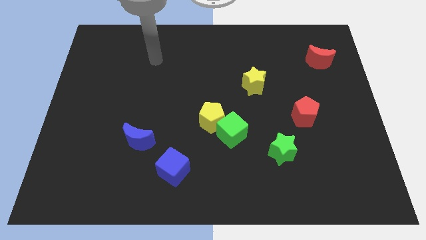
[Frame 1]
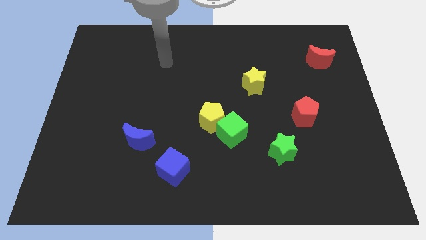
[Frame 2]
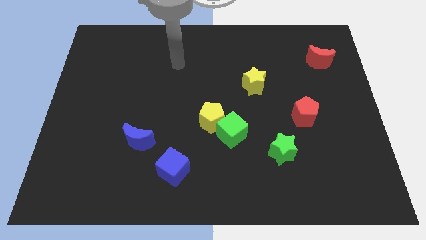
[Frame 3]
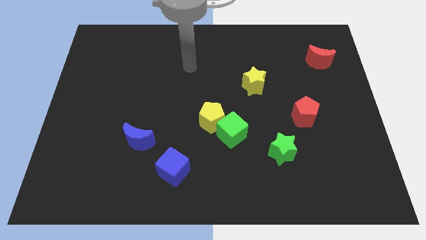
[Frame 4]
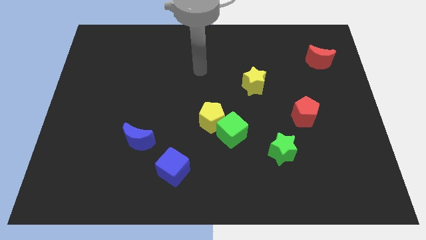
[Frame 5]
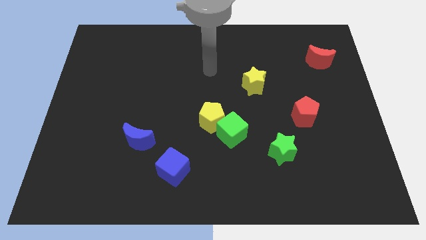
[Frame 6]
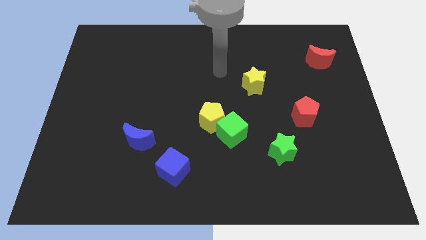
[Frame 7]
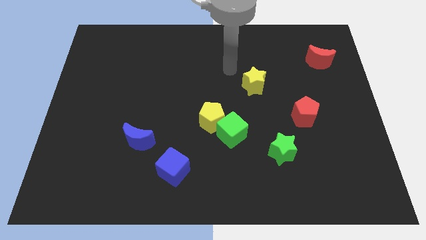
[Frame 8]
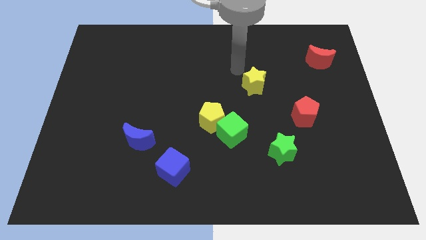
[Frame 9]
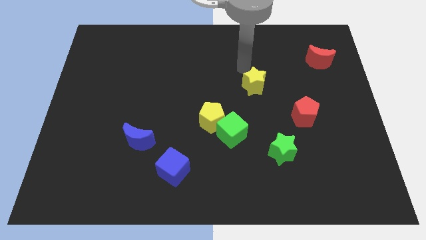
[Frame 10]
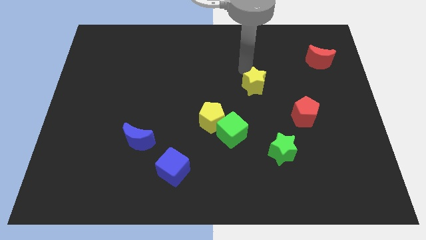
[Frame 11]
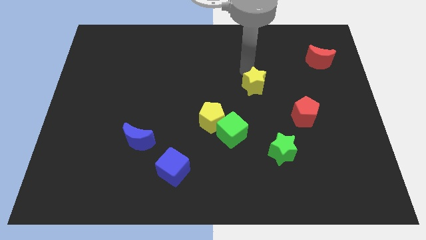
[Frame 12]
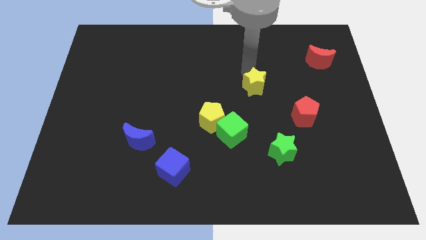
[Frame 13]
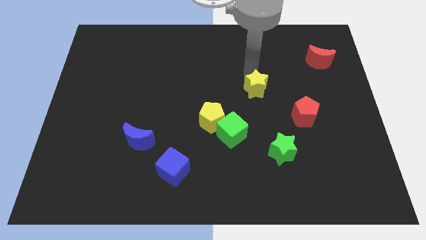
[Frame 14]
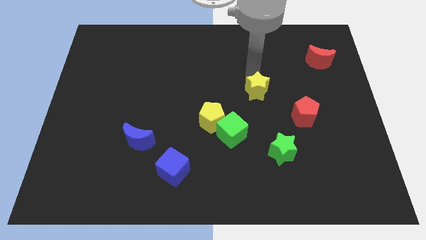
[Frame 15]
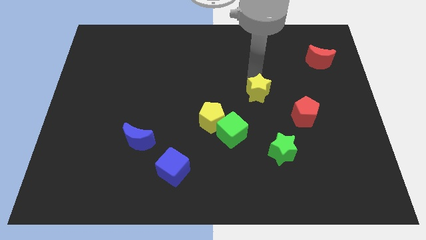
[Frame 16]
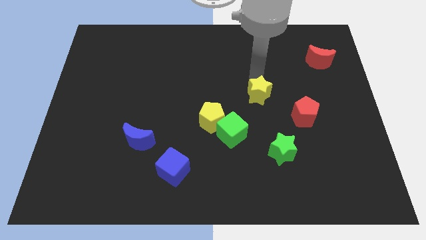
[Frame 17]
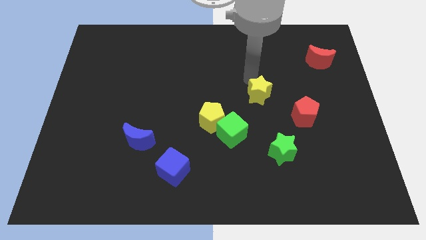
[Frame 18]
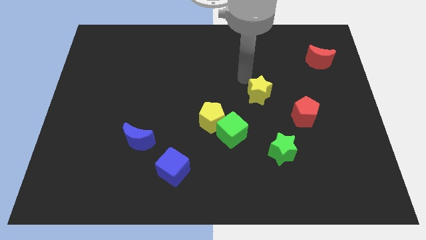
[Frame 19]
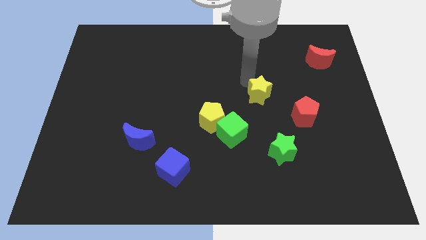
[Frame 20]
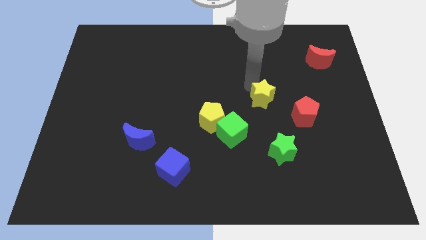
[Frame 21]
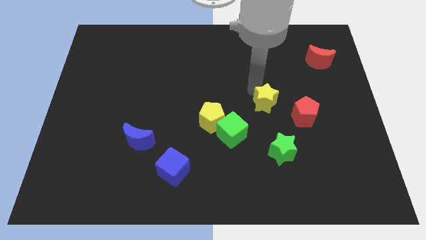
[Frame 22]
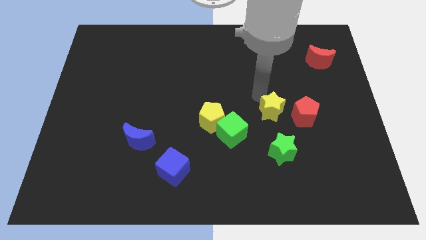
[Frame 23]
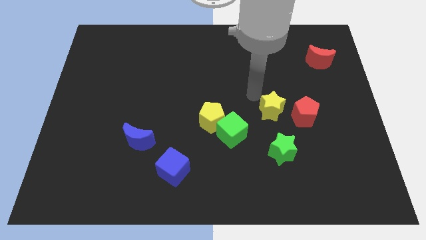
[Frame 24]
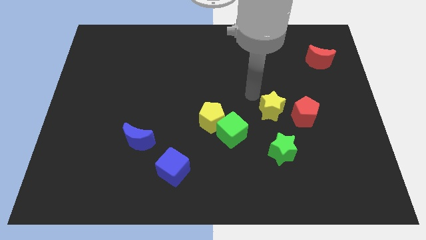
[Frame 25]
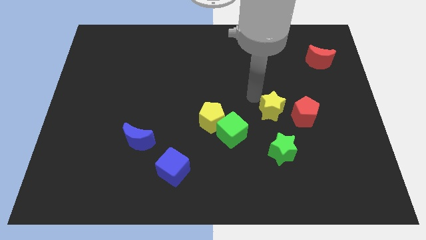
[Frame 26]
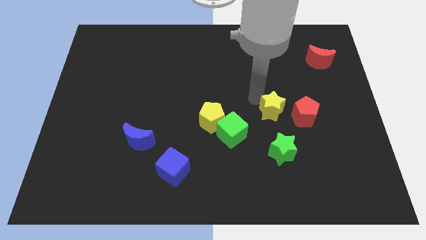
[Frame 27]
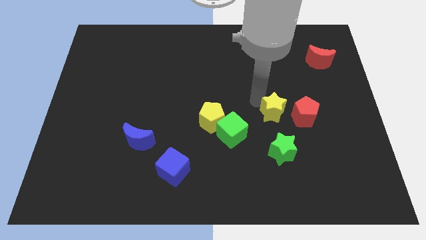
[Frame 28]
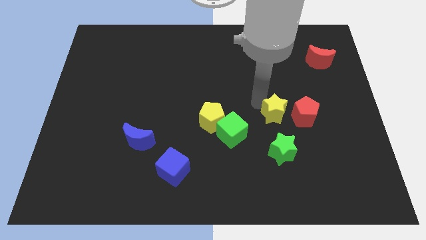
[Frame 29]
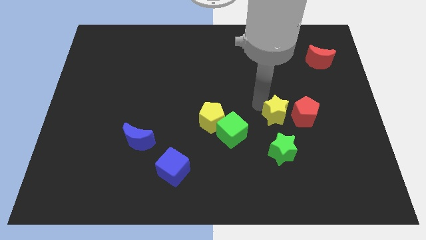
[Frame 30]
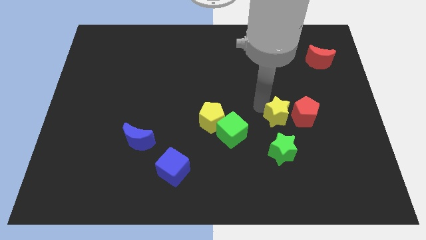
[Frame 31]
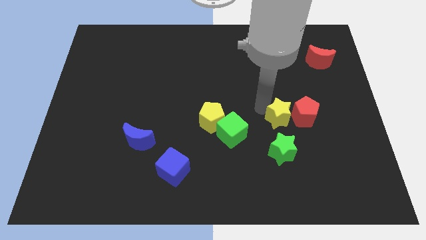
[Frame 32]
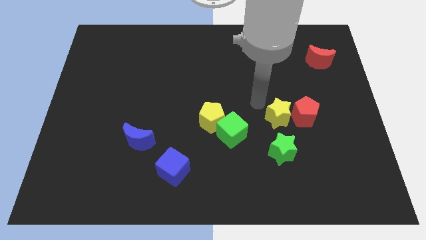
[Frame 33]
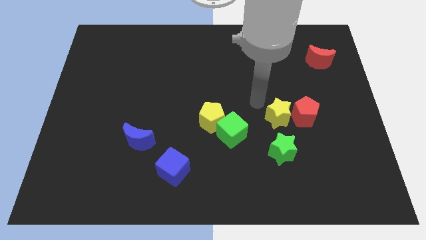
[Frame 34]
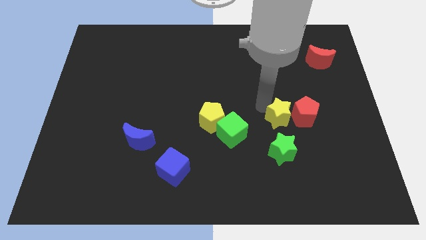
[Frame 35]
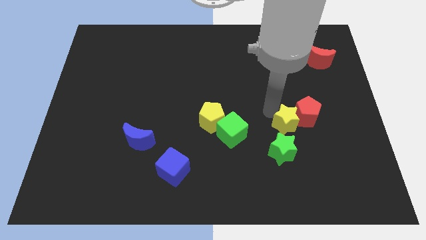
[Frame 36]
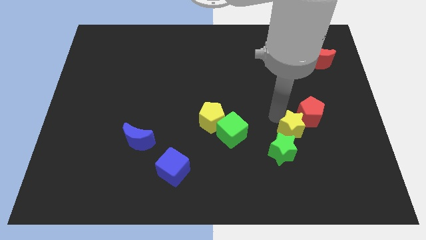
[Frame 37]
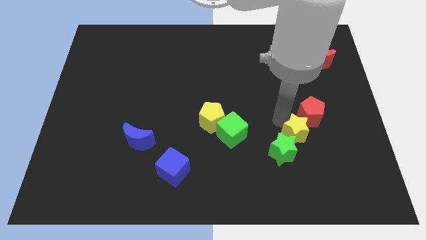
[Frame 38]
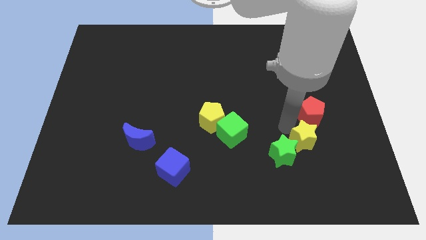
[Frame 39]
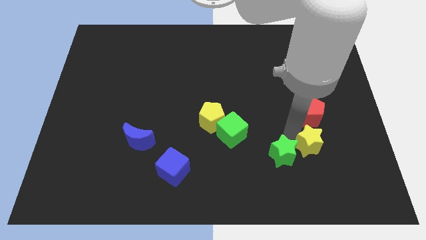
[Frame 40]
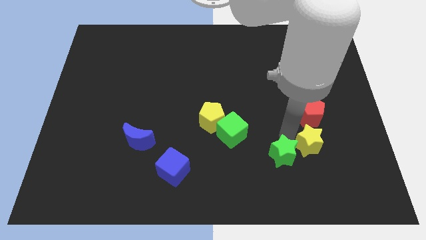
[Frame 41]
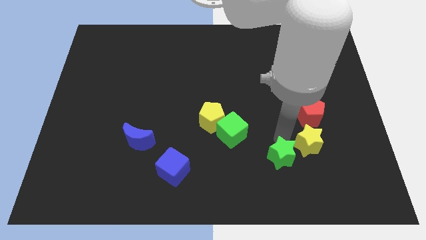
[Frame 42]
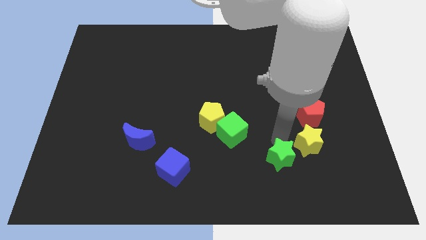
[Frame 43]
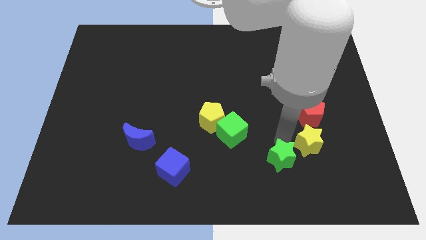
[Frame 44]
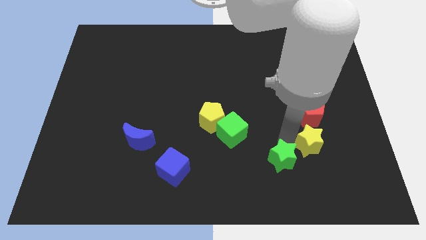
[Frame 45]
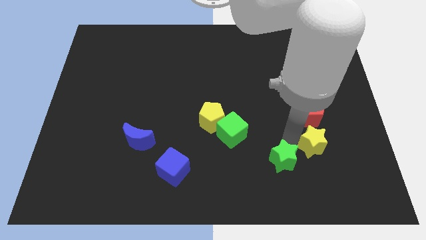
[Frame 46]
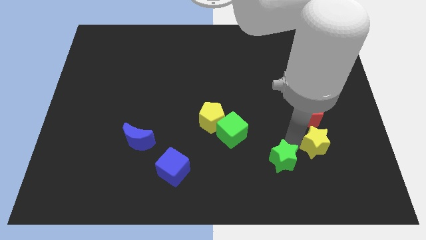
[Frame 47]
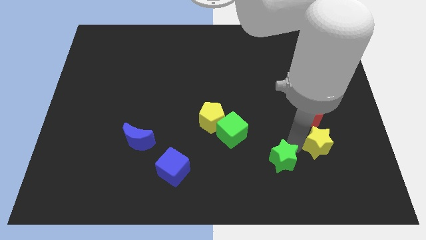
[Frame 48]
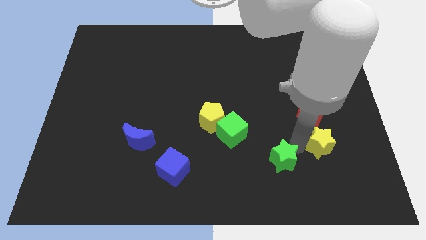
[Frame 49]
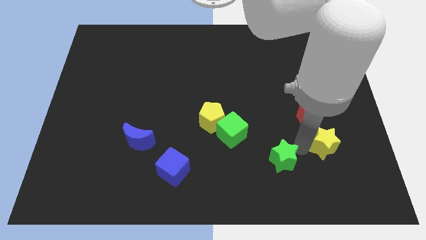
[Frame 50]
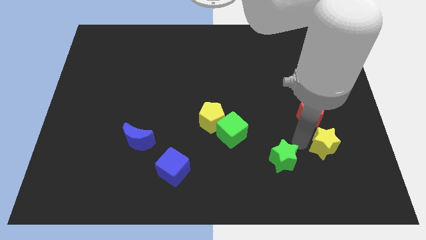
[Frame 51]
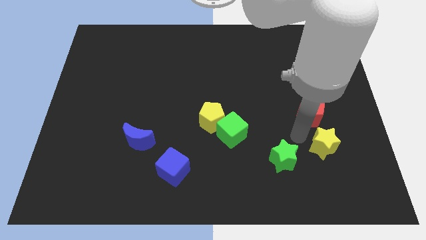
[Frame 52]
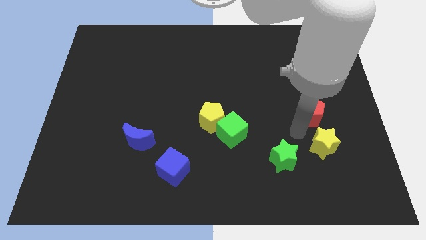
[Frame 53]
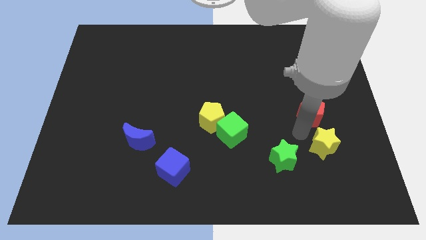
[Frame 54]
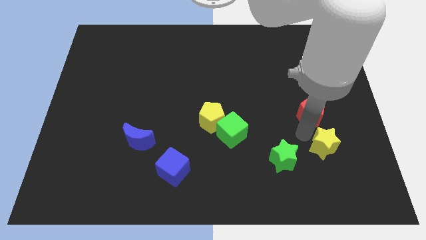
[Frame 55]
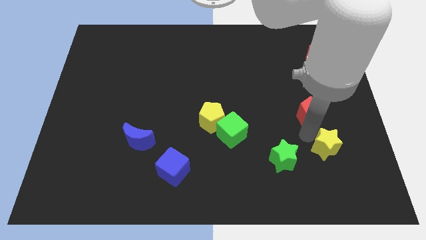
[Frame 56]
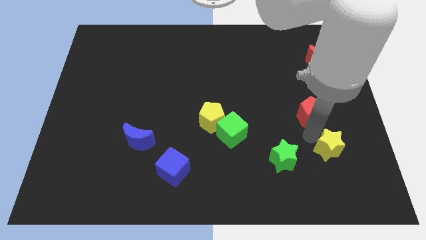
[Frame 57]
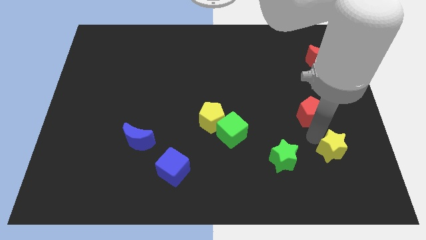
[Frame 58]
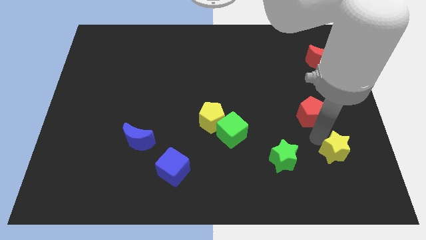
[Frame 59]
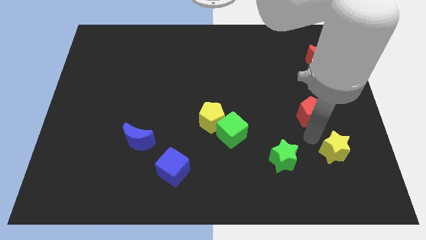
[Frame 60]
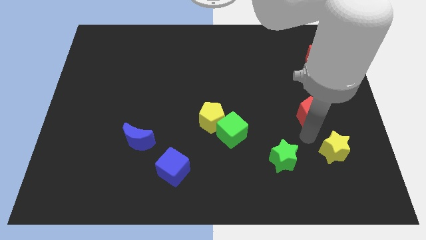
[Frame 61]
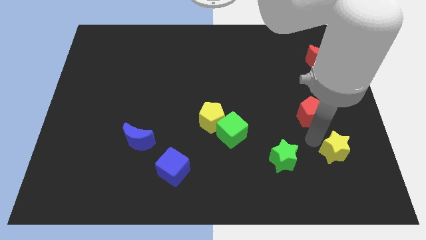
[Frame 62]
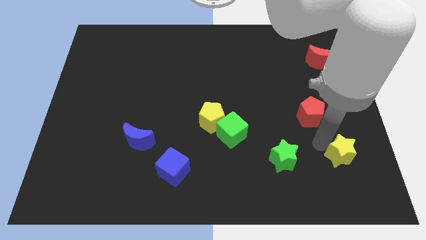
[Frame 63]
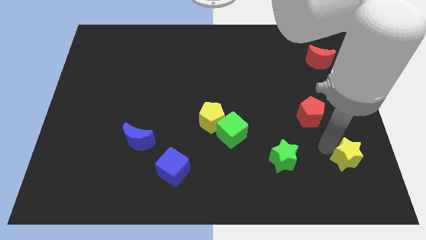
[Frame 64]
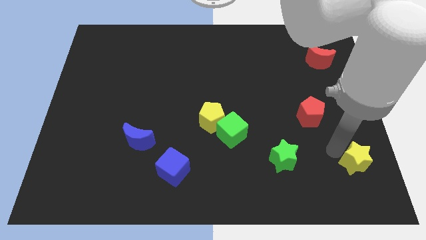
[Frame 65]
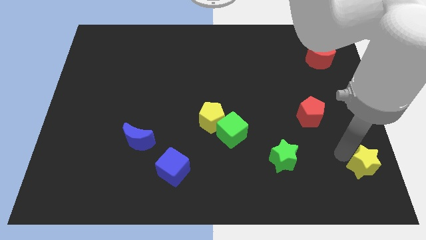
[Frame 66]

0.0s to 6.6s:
put the yellow star to the bottom right corner

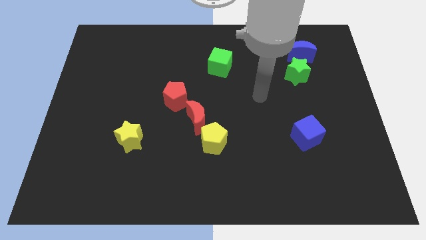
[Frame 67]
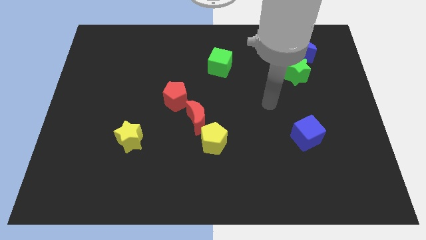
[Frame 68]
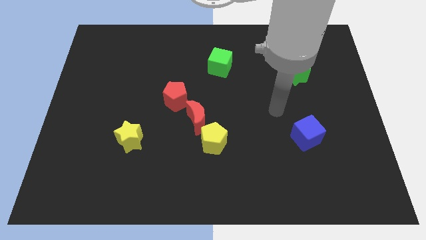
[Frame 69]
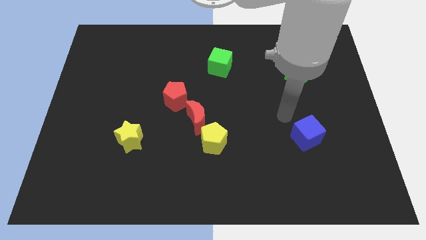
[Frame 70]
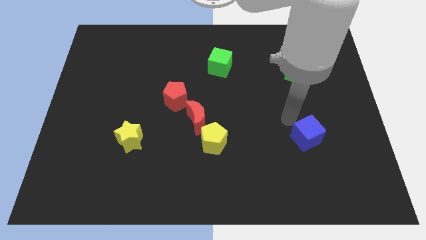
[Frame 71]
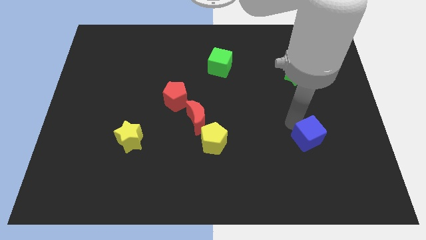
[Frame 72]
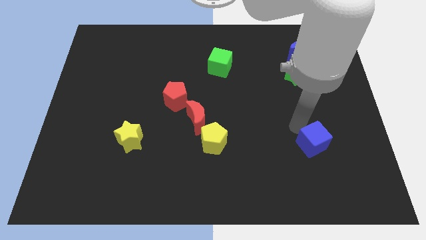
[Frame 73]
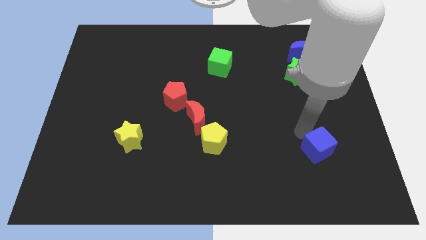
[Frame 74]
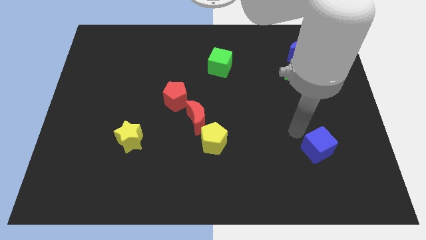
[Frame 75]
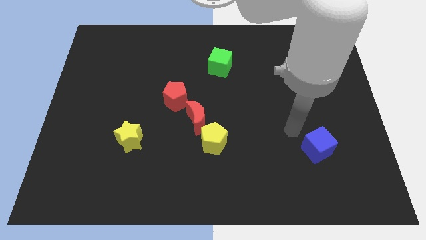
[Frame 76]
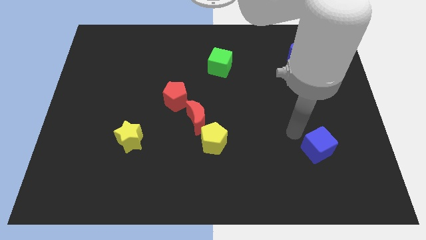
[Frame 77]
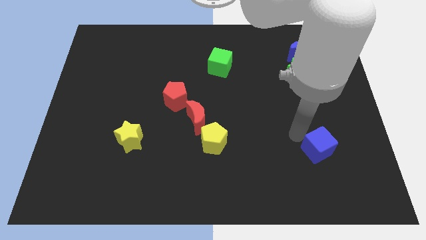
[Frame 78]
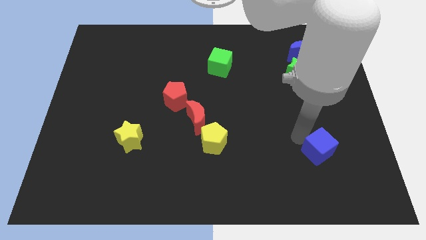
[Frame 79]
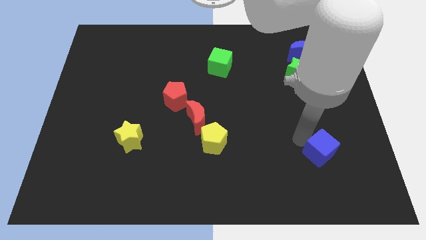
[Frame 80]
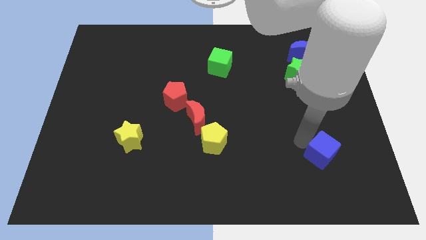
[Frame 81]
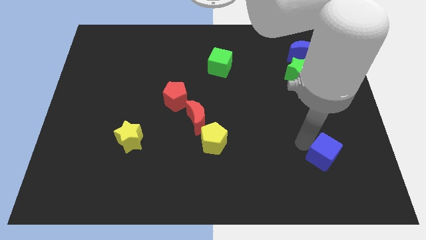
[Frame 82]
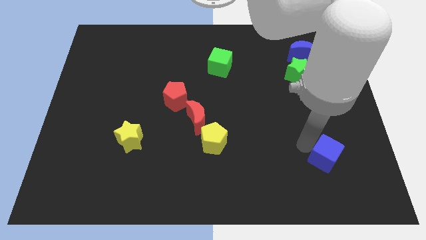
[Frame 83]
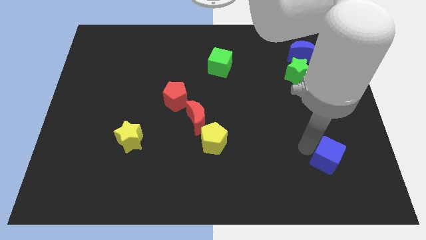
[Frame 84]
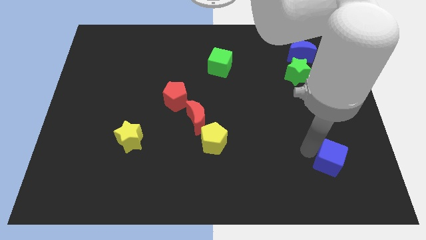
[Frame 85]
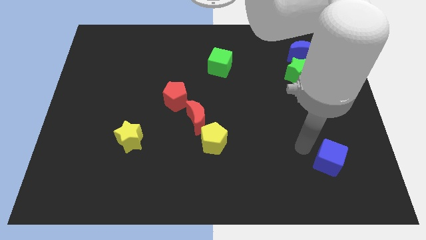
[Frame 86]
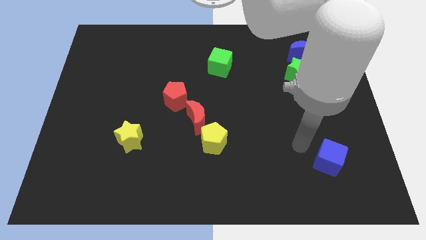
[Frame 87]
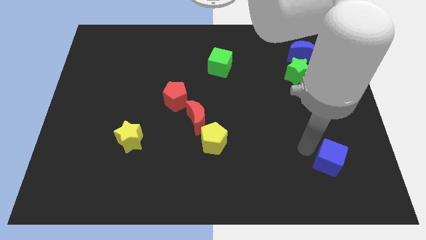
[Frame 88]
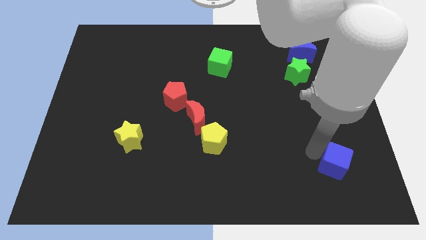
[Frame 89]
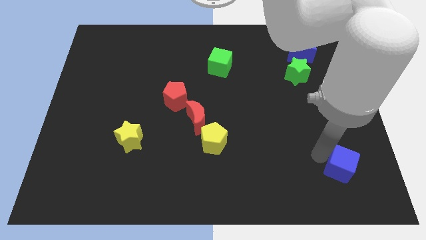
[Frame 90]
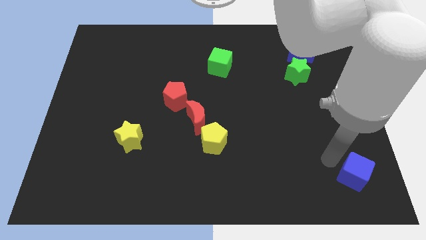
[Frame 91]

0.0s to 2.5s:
move the blue cube to the lower right corner
